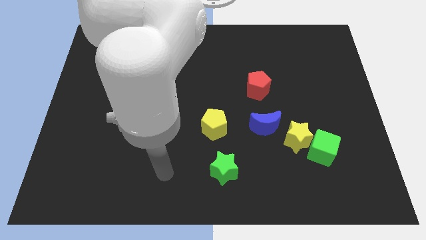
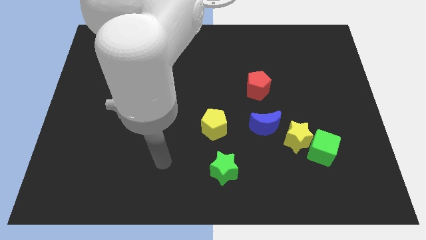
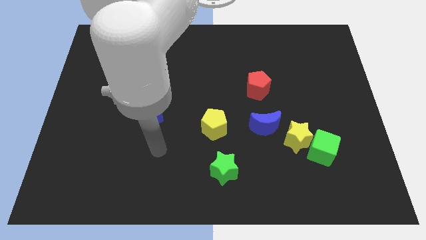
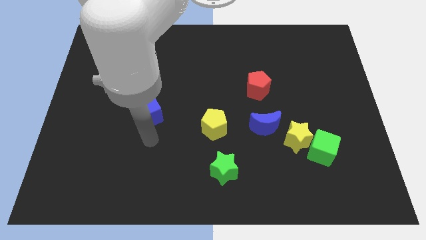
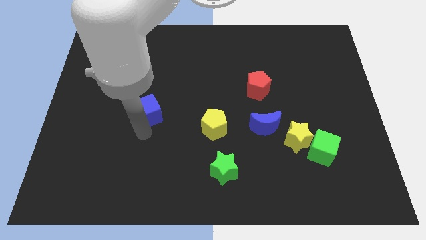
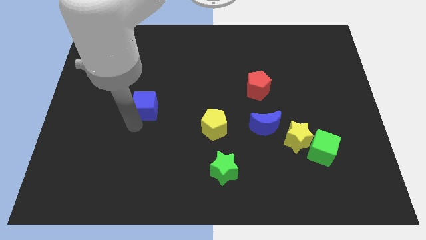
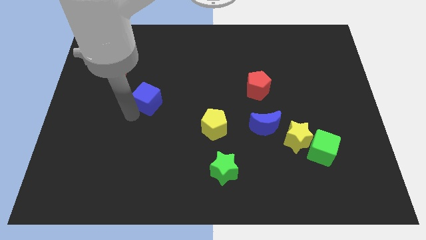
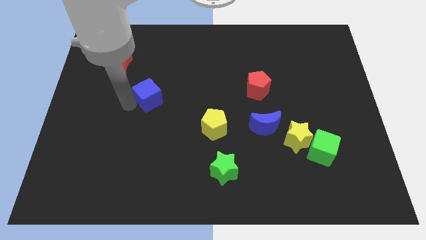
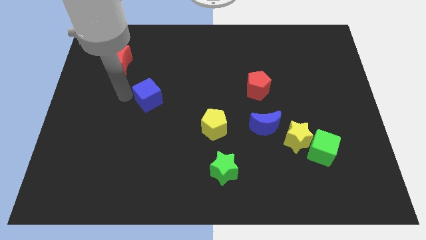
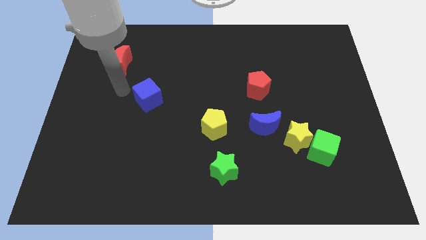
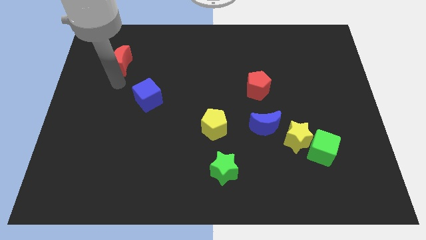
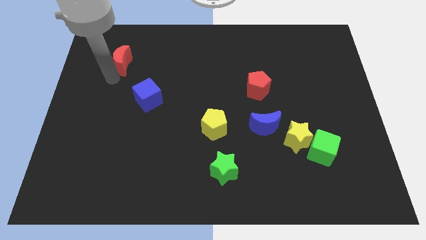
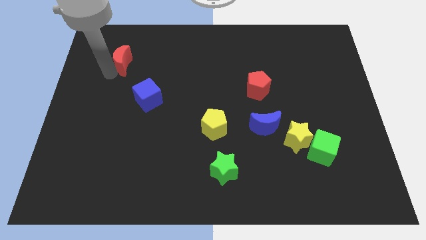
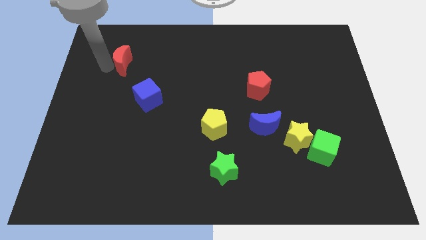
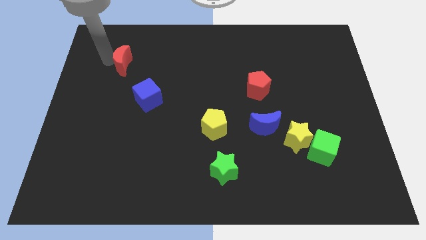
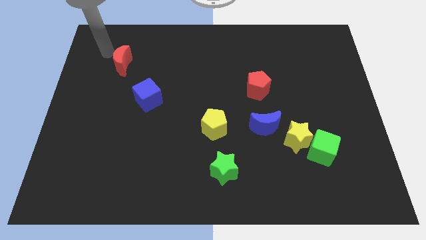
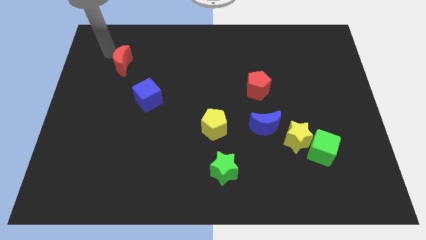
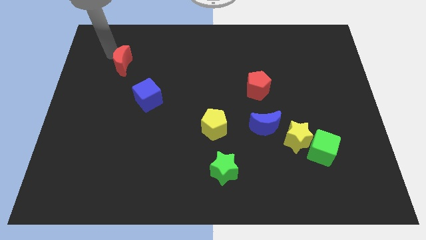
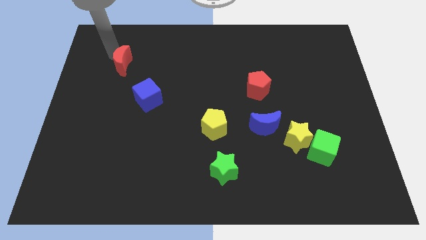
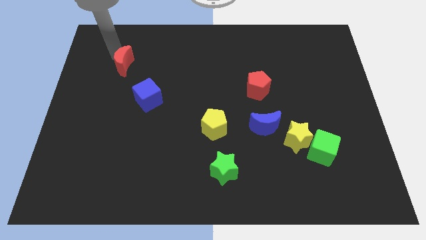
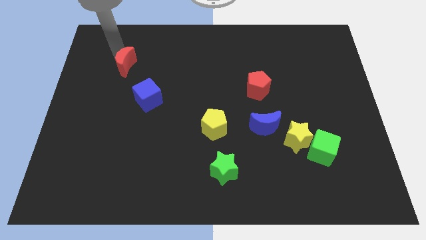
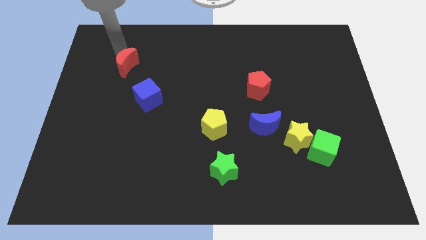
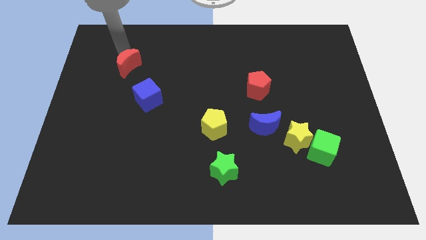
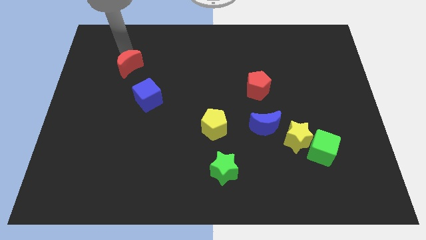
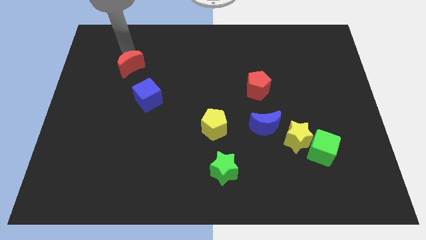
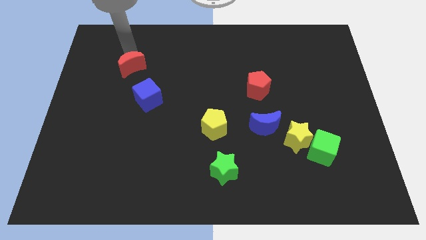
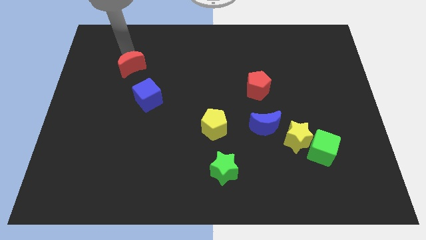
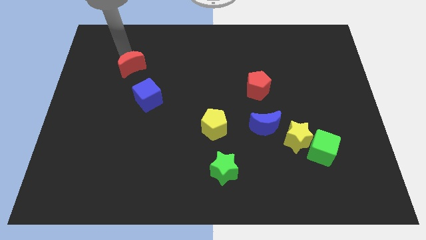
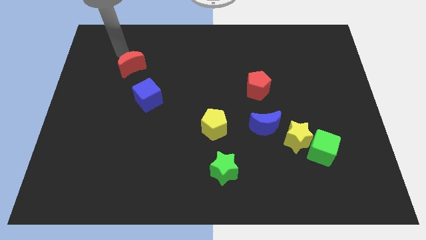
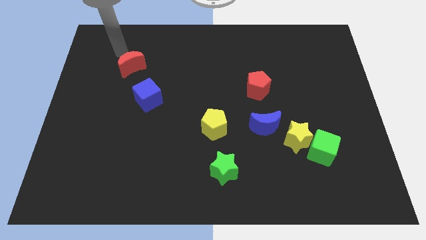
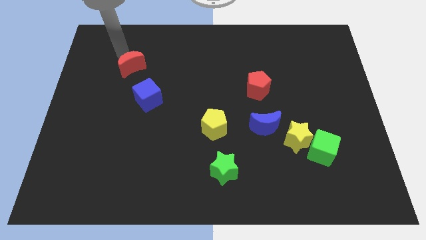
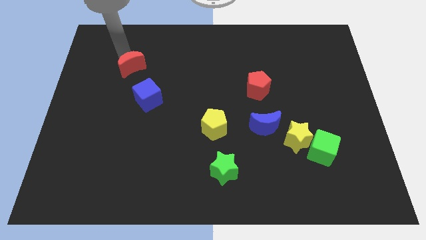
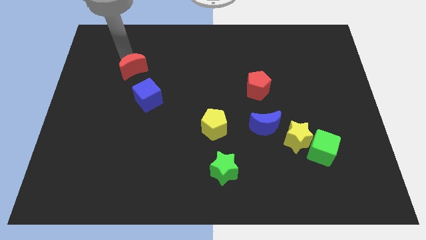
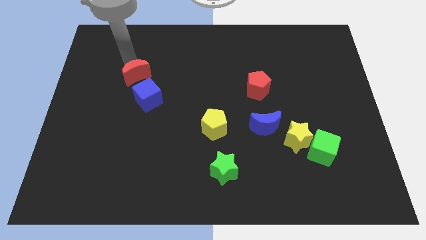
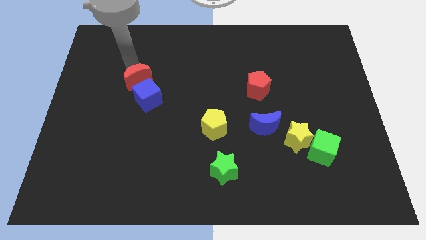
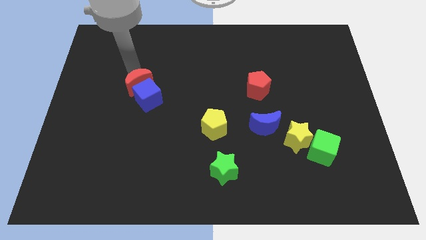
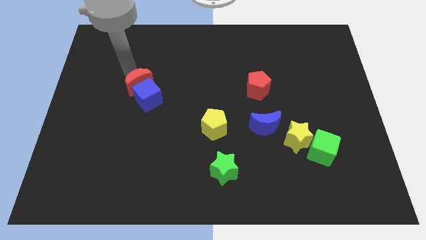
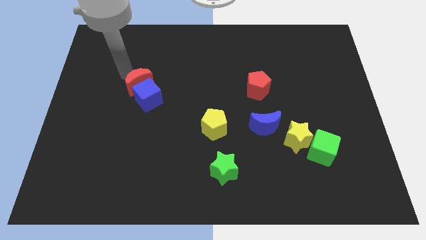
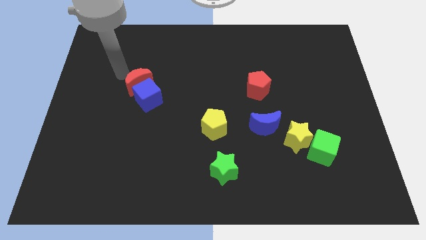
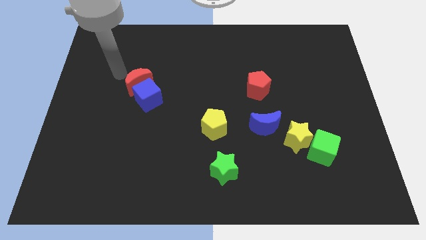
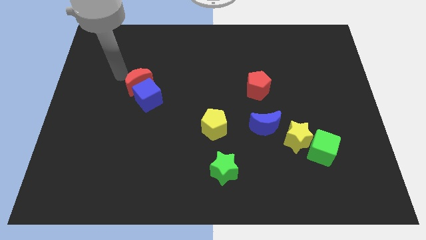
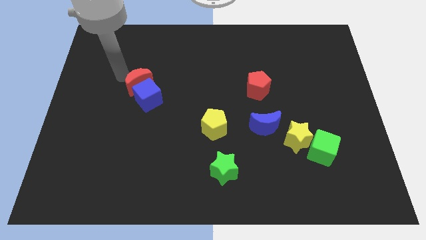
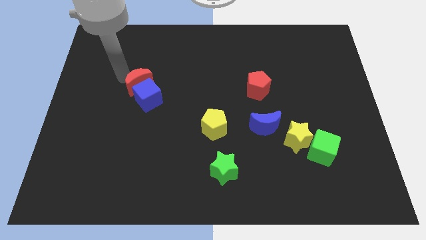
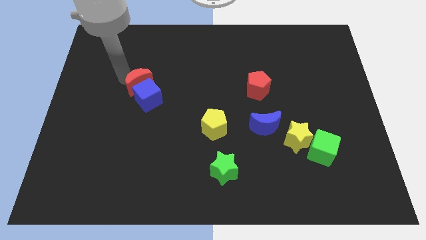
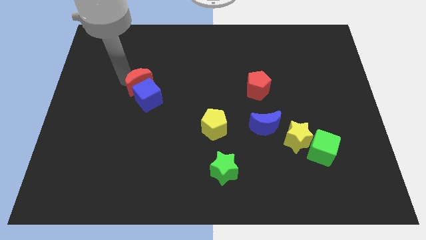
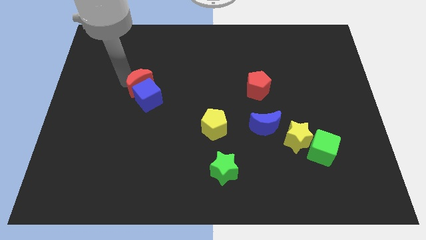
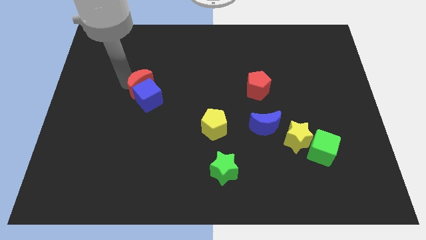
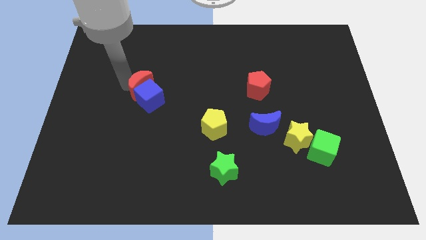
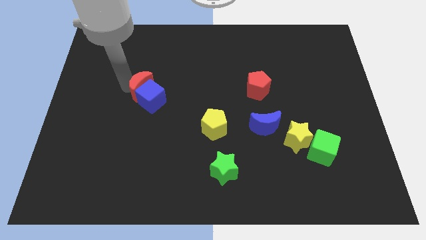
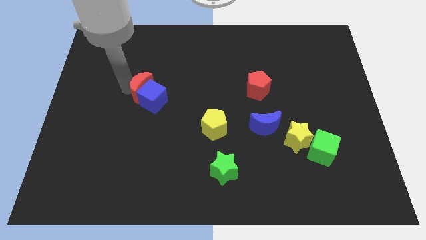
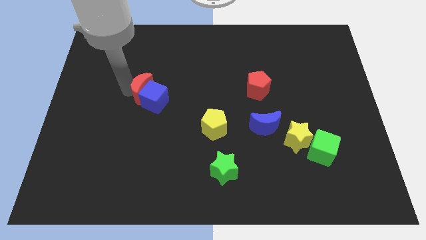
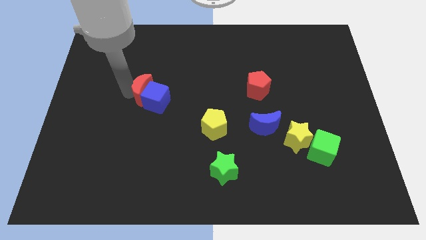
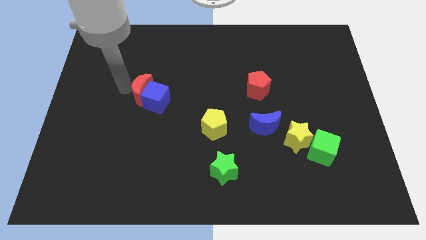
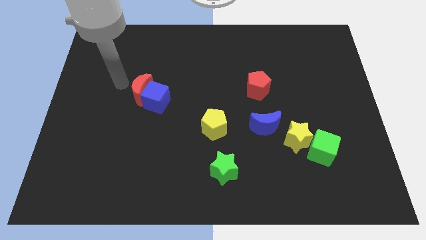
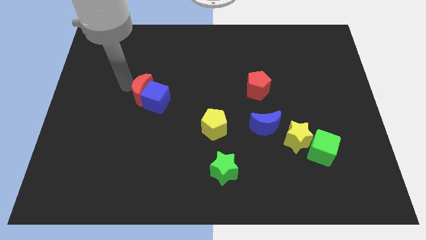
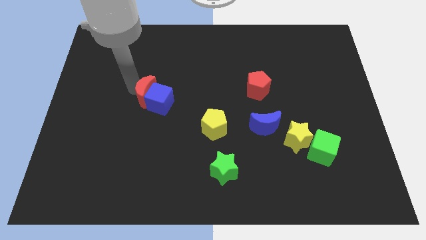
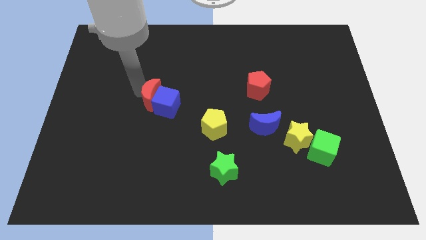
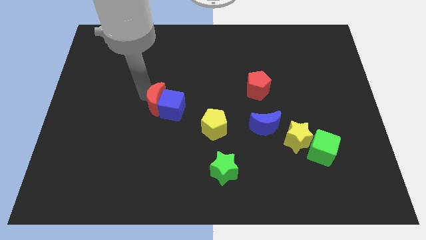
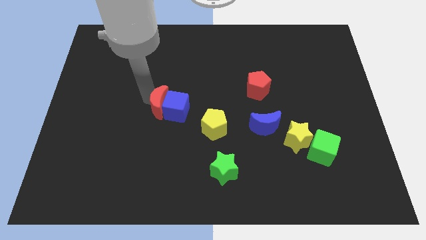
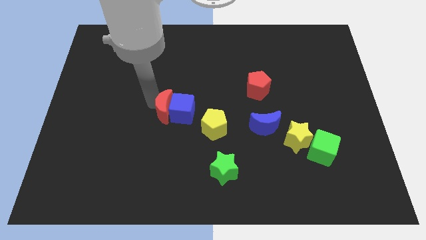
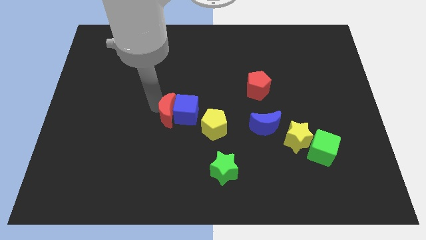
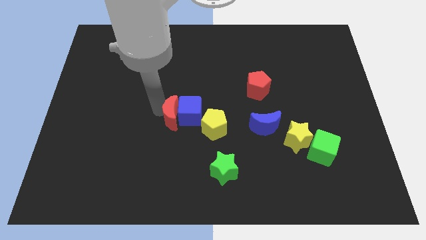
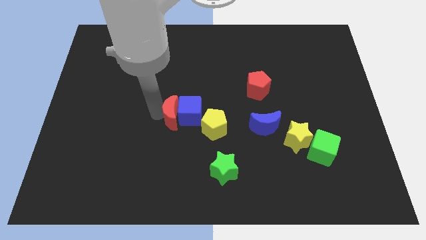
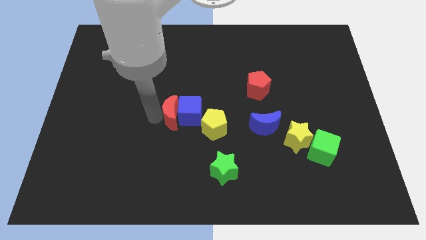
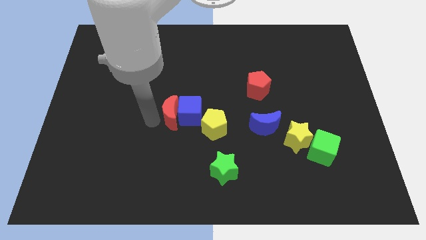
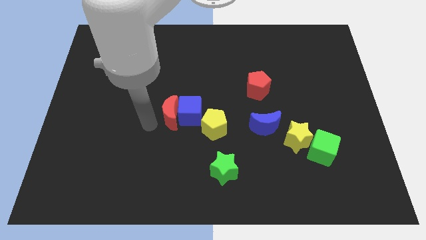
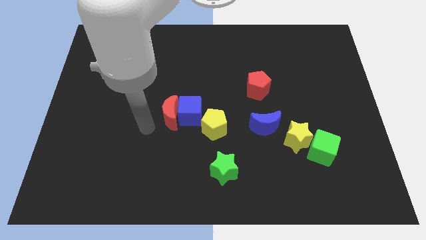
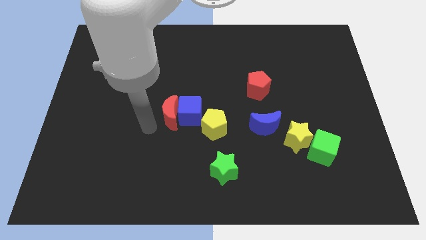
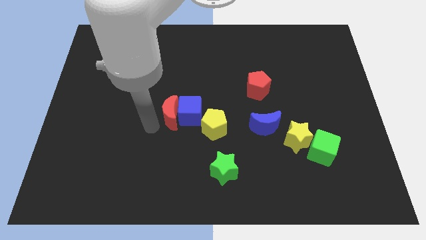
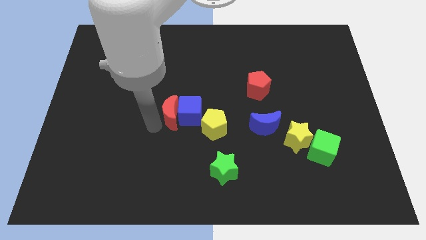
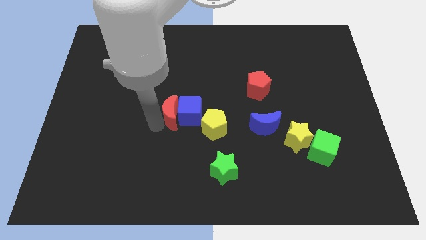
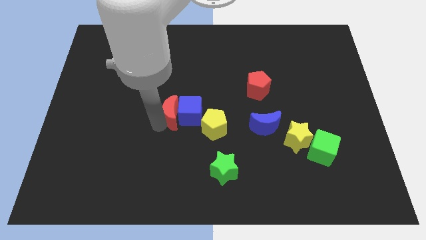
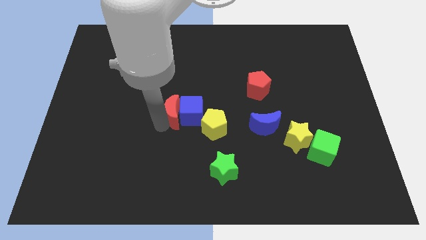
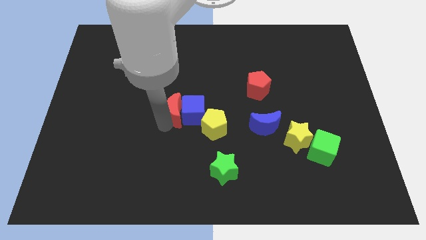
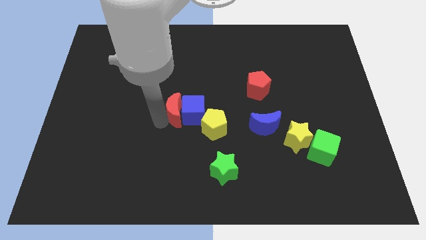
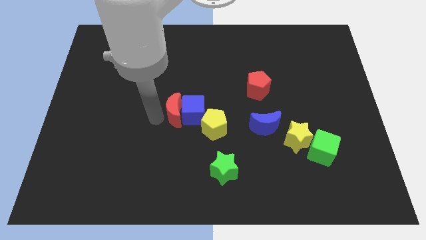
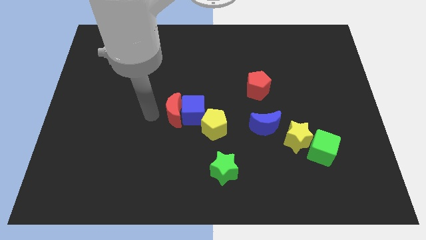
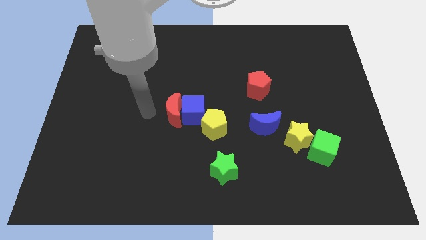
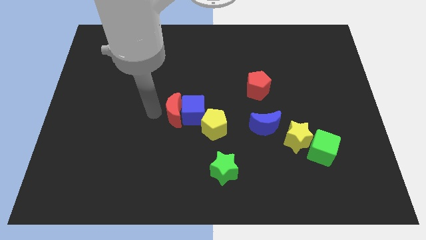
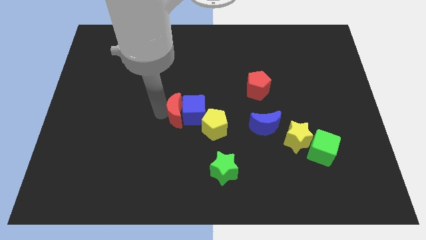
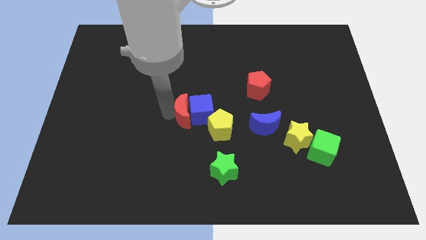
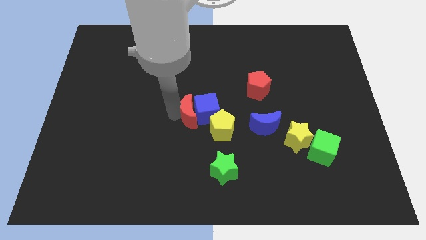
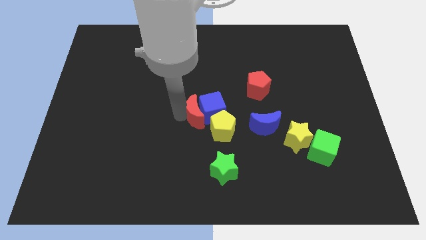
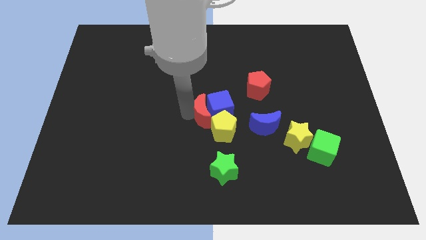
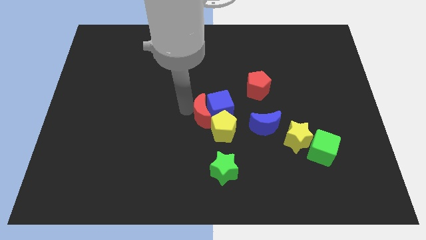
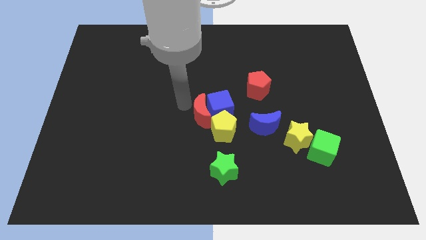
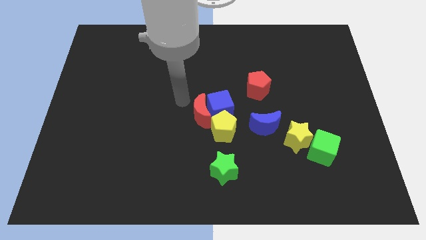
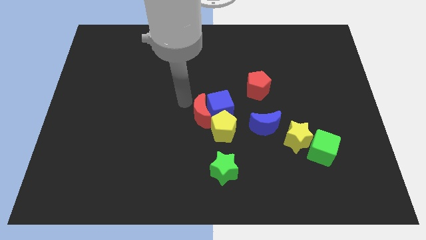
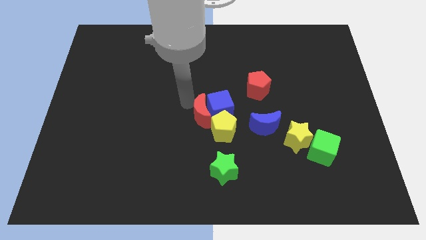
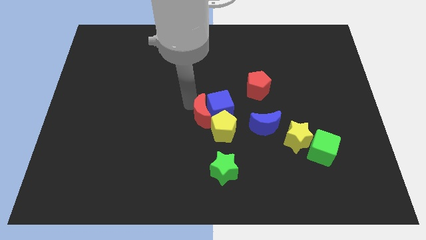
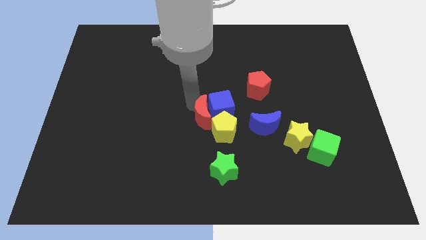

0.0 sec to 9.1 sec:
push the red moon to the yellow pentagon
